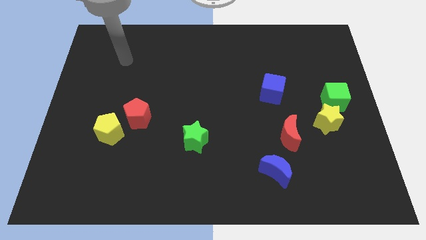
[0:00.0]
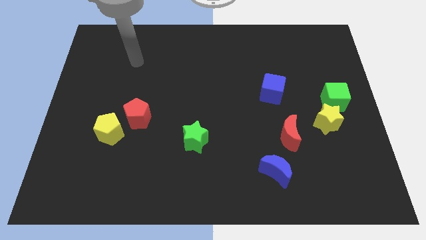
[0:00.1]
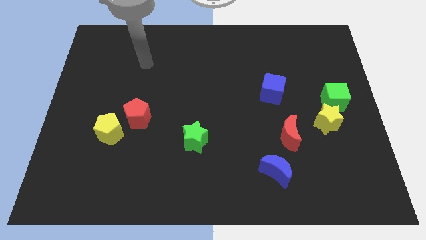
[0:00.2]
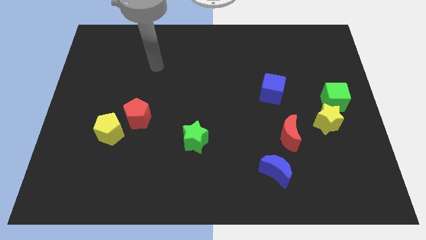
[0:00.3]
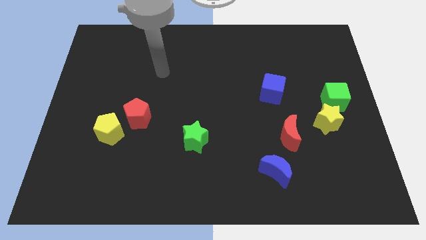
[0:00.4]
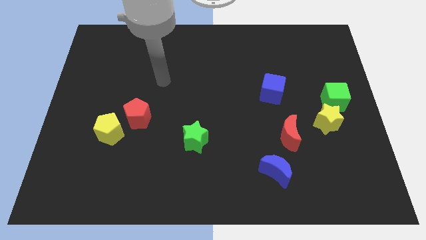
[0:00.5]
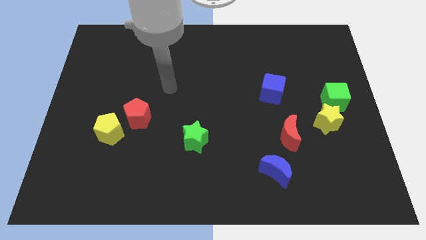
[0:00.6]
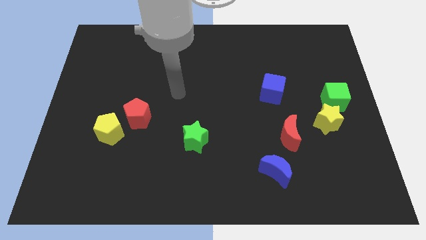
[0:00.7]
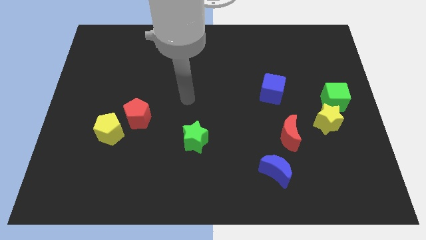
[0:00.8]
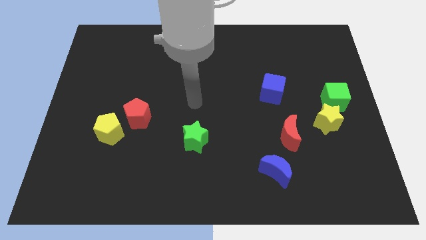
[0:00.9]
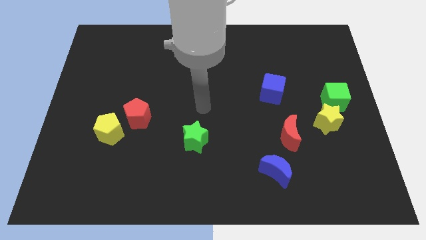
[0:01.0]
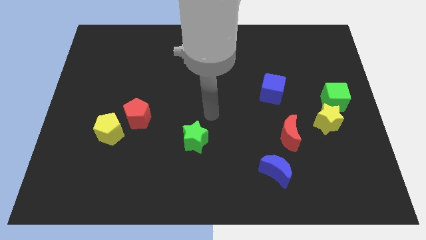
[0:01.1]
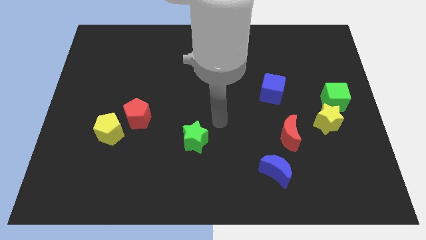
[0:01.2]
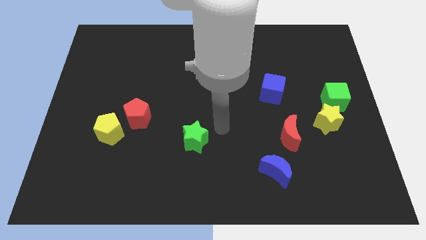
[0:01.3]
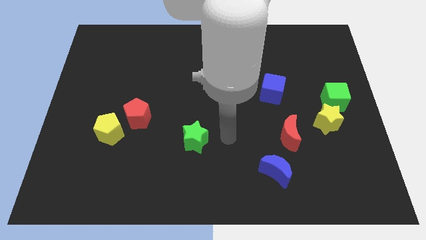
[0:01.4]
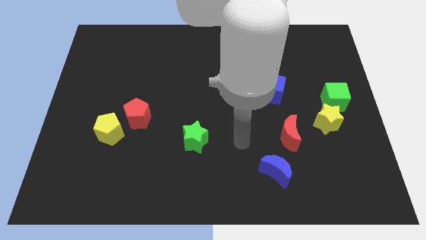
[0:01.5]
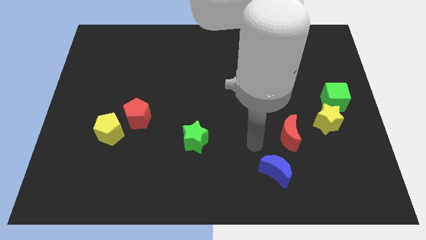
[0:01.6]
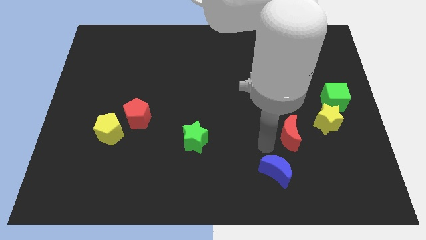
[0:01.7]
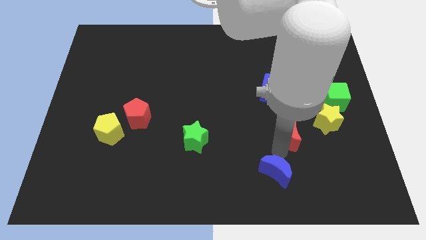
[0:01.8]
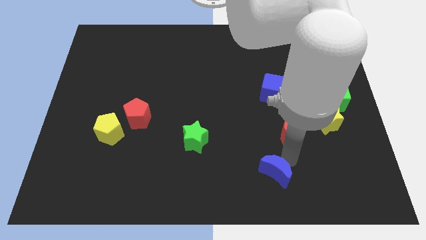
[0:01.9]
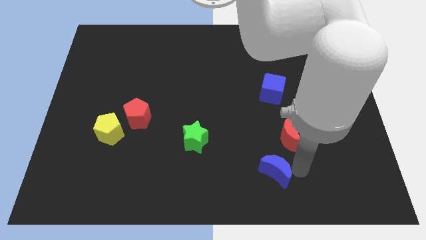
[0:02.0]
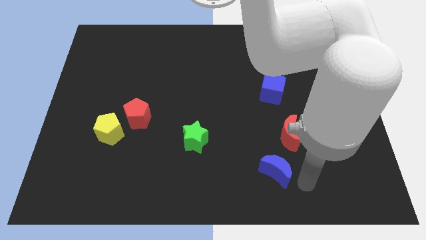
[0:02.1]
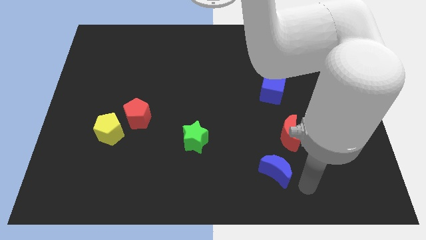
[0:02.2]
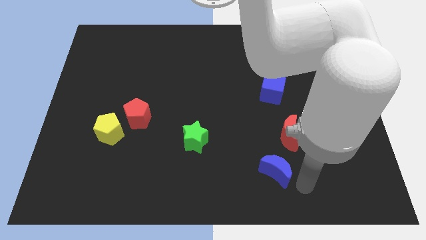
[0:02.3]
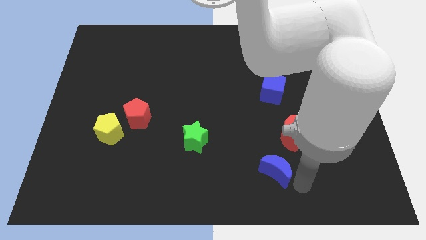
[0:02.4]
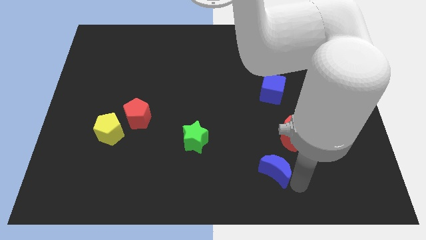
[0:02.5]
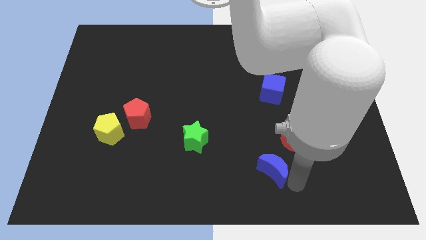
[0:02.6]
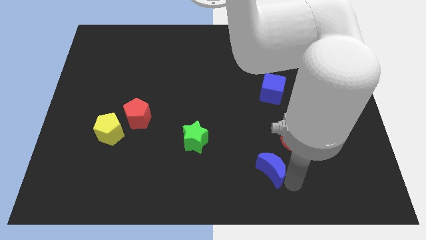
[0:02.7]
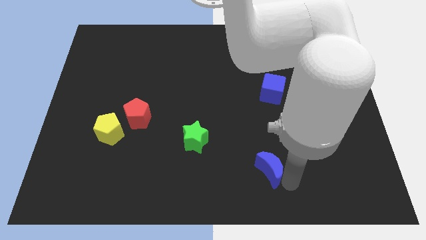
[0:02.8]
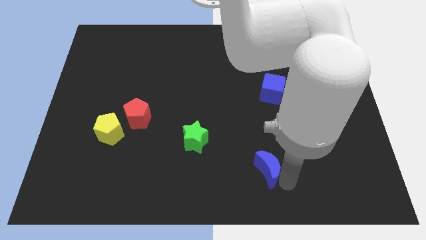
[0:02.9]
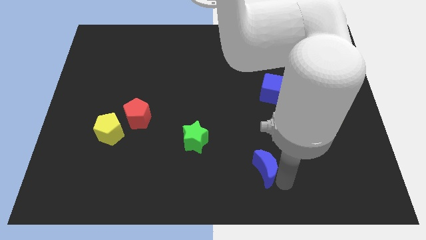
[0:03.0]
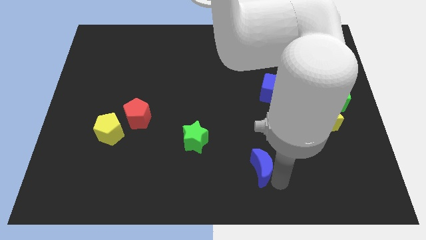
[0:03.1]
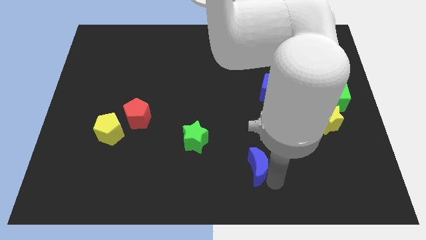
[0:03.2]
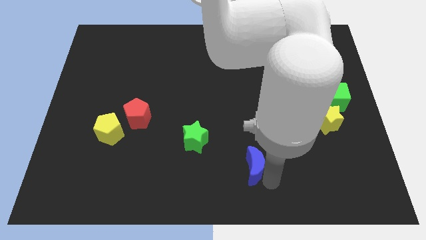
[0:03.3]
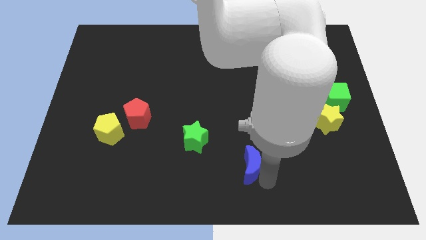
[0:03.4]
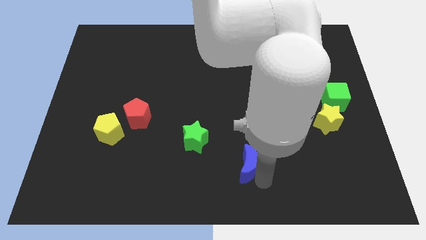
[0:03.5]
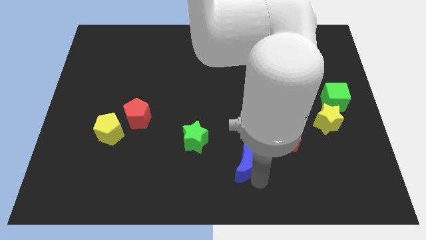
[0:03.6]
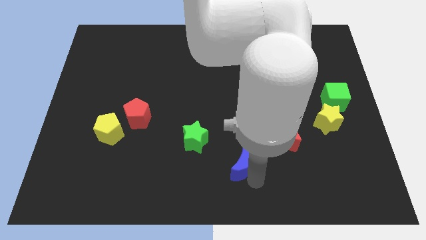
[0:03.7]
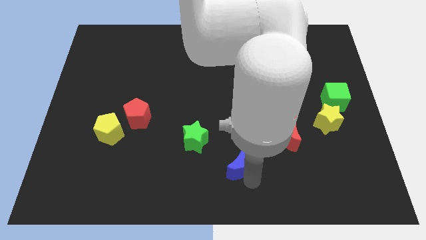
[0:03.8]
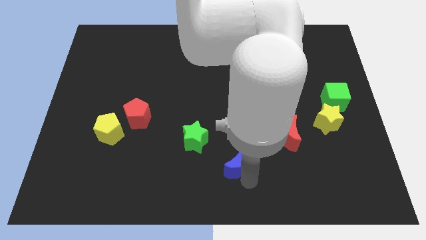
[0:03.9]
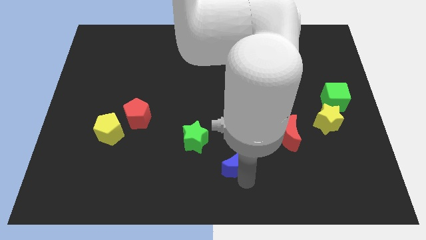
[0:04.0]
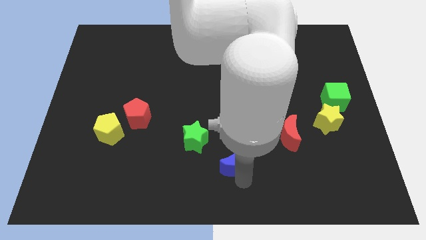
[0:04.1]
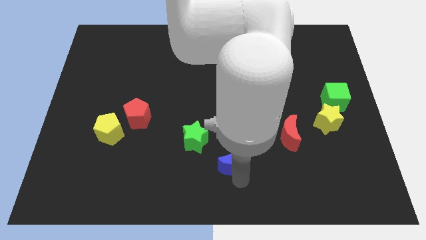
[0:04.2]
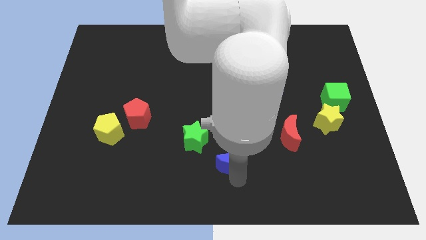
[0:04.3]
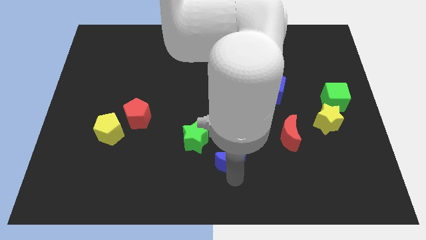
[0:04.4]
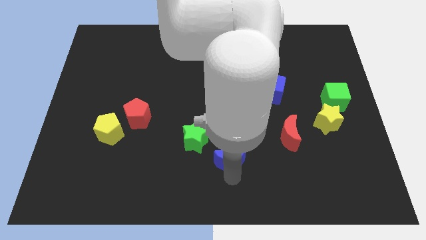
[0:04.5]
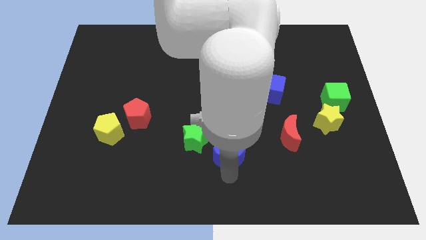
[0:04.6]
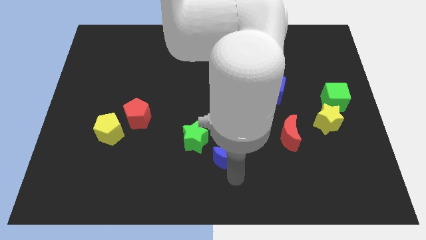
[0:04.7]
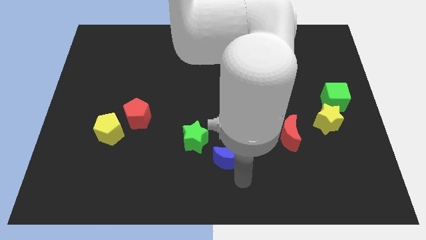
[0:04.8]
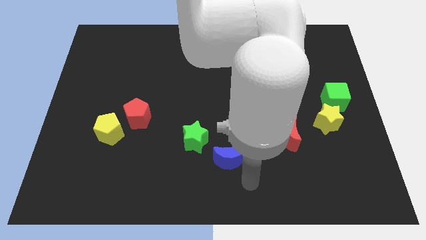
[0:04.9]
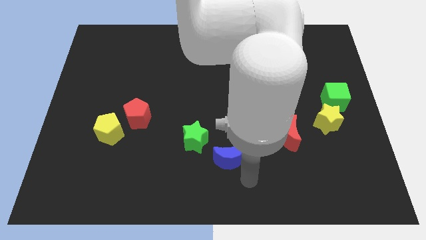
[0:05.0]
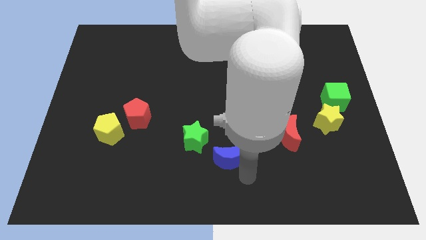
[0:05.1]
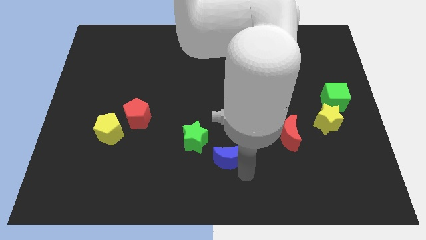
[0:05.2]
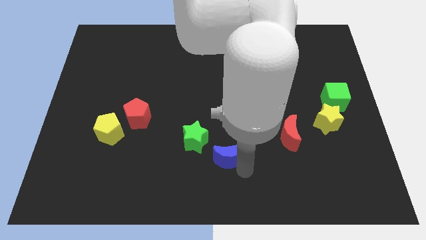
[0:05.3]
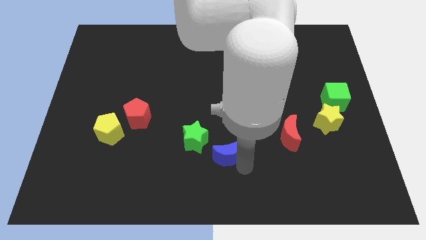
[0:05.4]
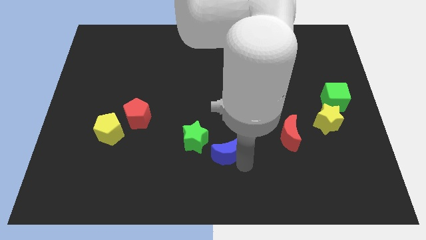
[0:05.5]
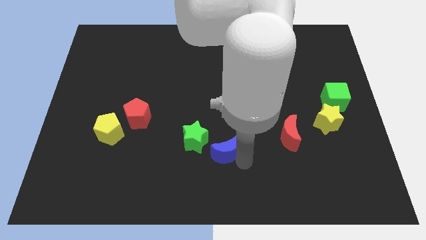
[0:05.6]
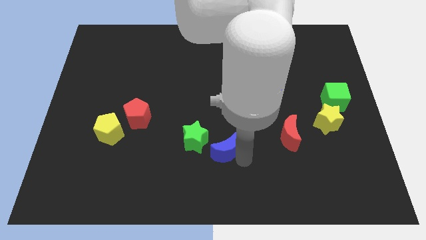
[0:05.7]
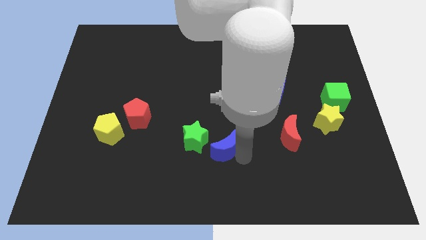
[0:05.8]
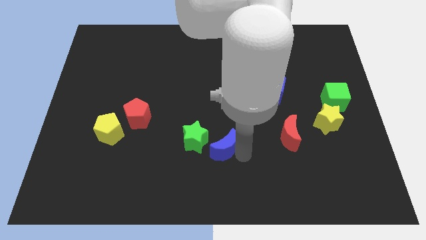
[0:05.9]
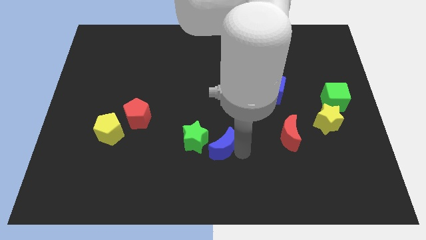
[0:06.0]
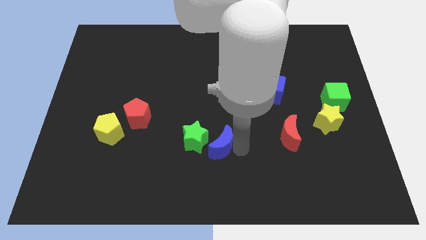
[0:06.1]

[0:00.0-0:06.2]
put the blue moon to the green star
